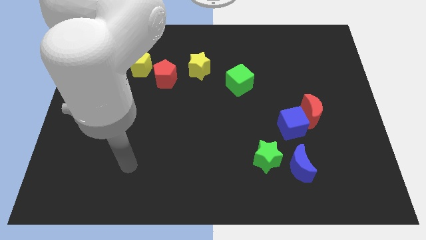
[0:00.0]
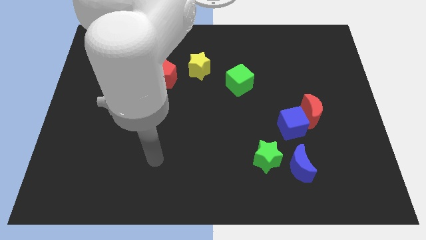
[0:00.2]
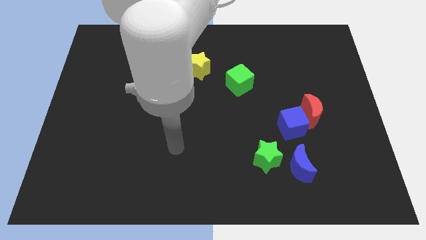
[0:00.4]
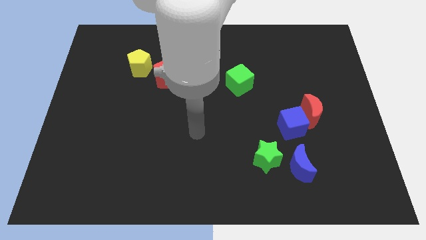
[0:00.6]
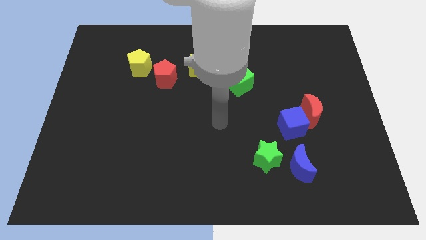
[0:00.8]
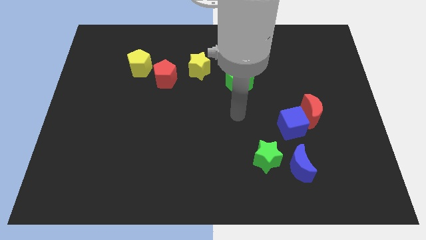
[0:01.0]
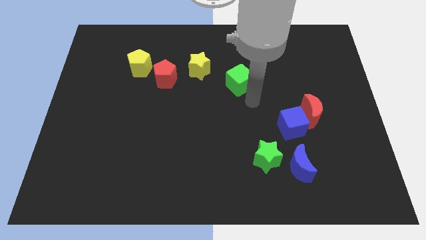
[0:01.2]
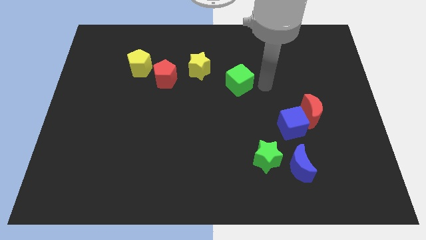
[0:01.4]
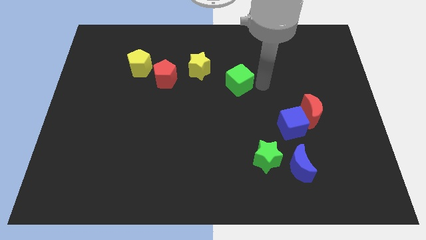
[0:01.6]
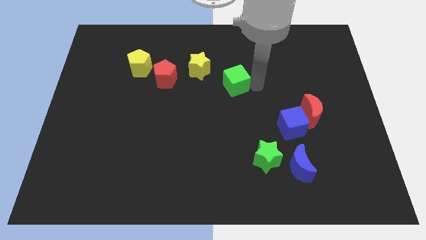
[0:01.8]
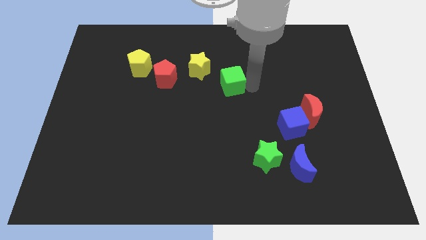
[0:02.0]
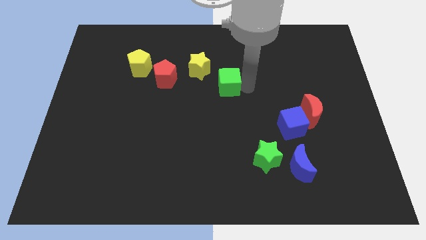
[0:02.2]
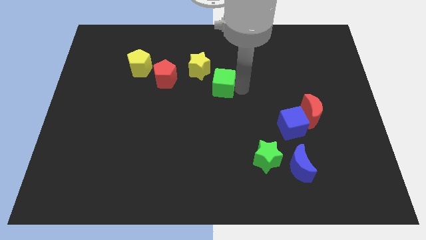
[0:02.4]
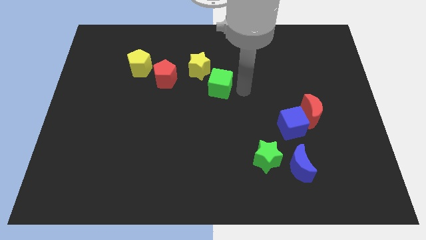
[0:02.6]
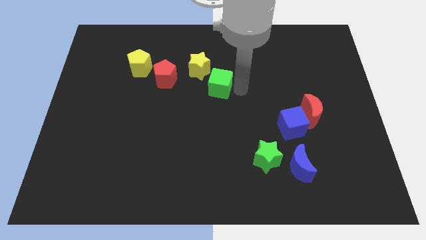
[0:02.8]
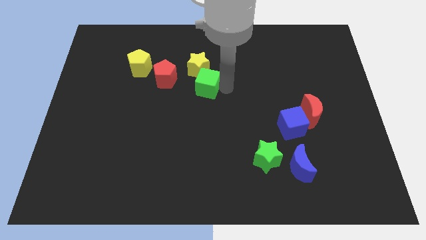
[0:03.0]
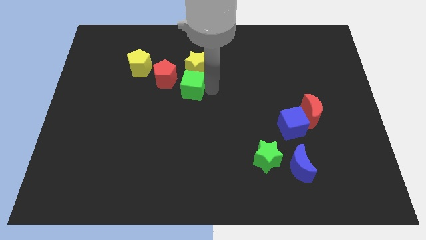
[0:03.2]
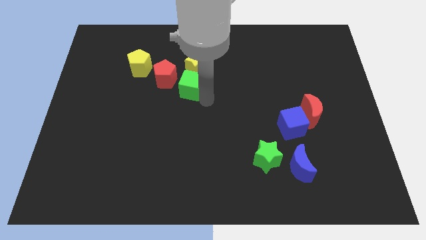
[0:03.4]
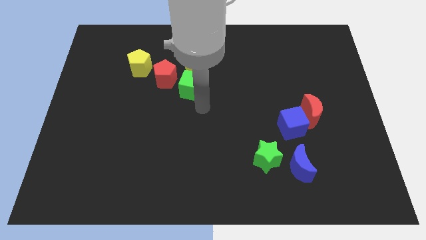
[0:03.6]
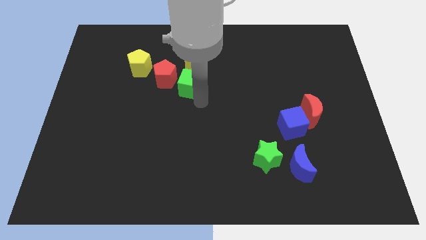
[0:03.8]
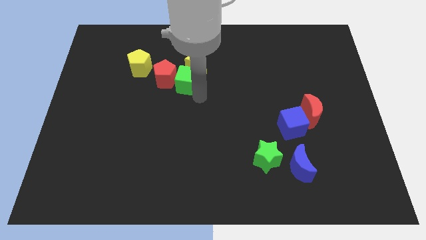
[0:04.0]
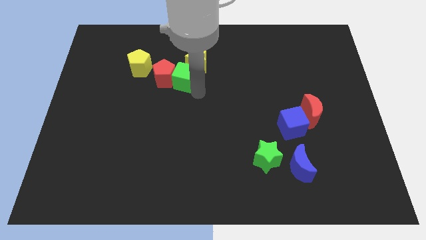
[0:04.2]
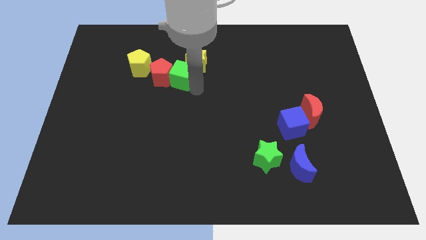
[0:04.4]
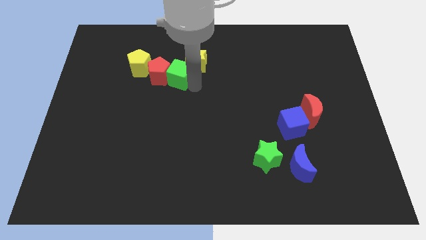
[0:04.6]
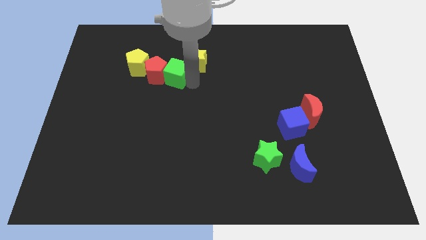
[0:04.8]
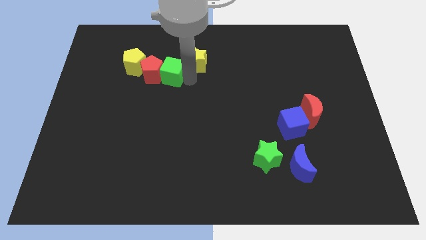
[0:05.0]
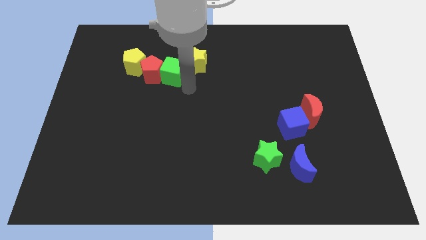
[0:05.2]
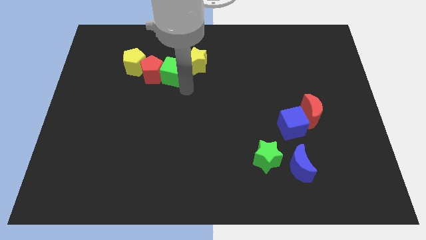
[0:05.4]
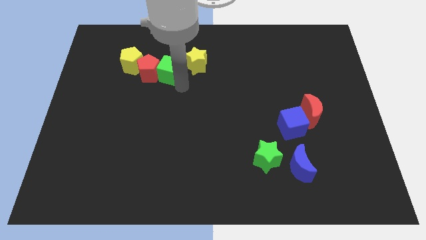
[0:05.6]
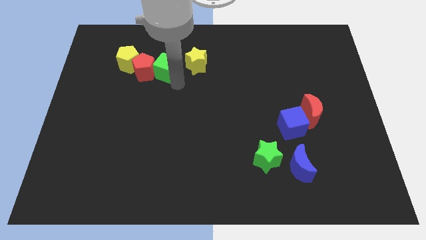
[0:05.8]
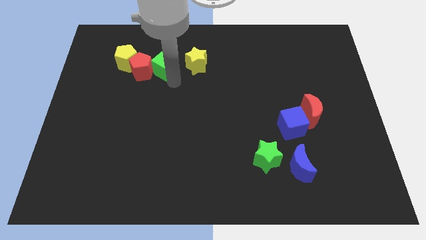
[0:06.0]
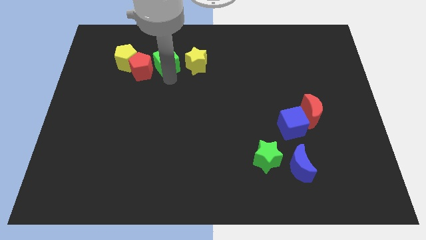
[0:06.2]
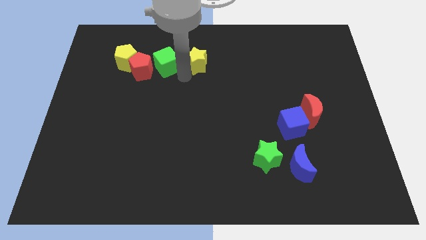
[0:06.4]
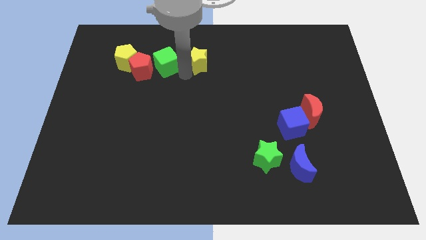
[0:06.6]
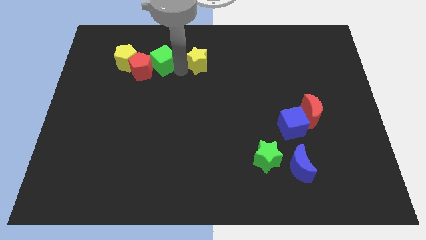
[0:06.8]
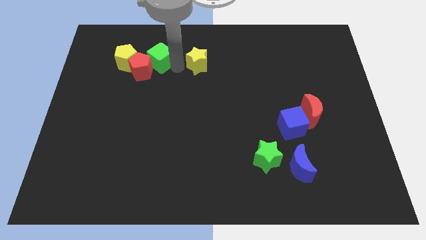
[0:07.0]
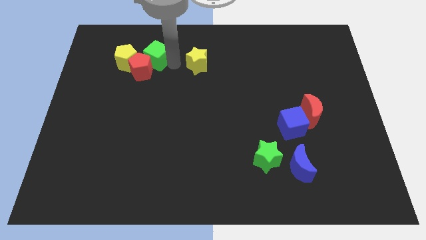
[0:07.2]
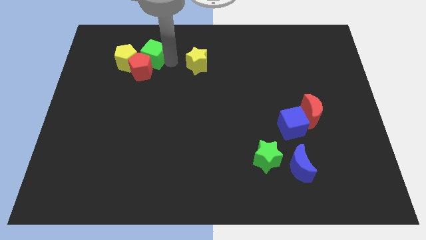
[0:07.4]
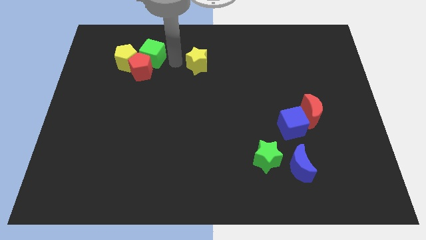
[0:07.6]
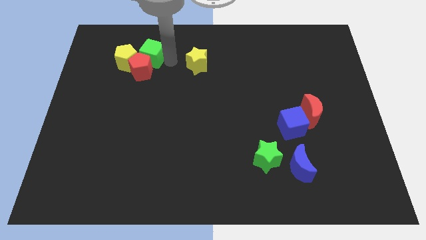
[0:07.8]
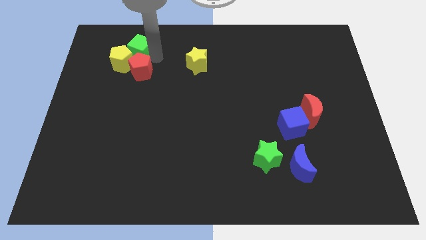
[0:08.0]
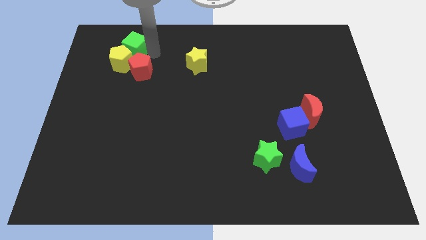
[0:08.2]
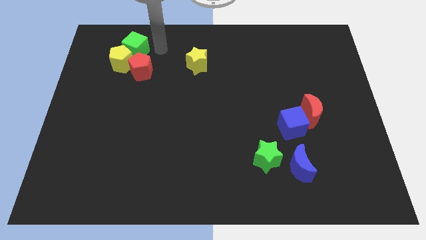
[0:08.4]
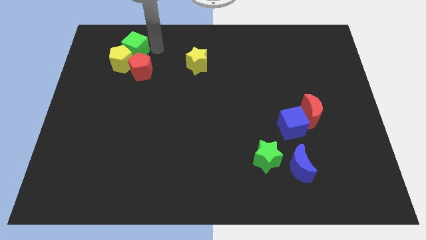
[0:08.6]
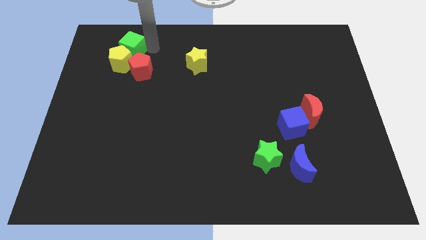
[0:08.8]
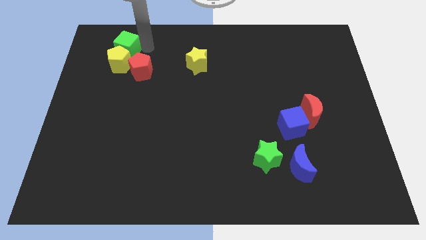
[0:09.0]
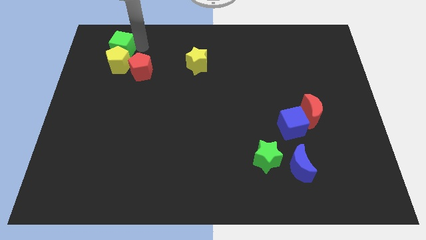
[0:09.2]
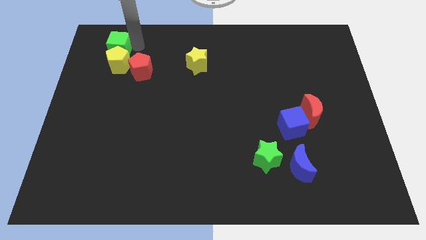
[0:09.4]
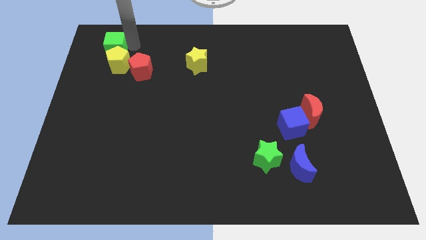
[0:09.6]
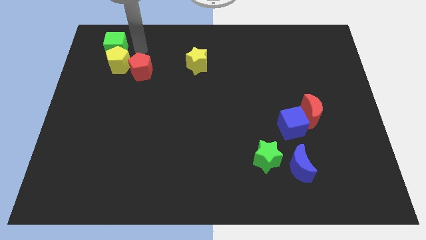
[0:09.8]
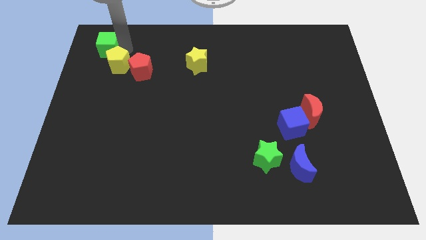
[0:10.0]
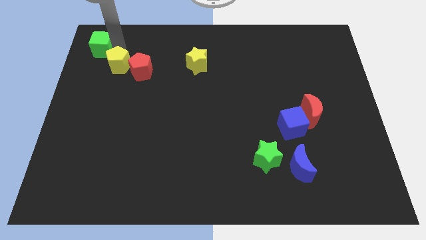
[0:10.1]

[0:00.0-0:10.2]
move the green cube to the upper left corner

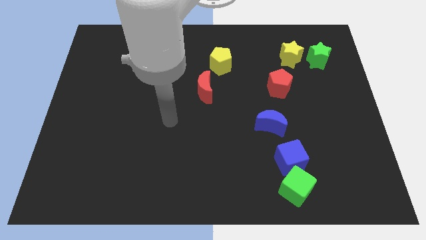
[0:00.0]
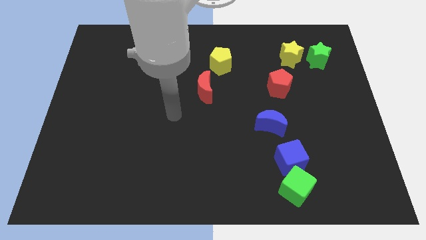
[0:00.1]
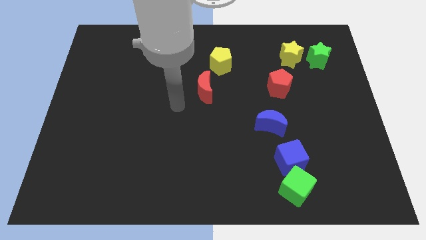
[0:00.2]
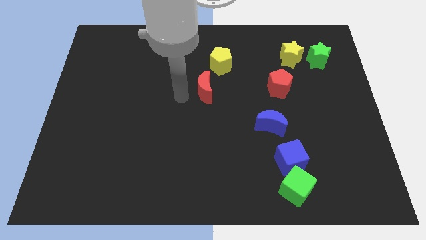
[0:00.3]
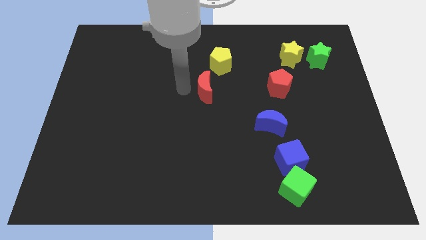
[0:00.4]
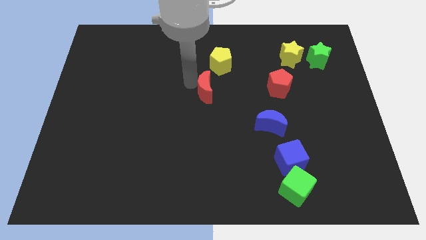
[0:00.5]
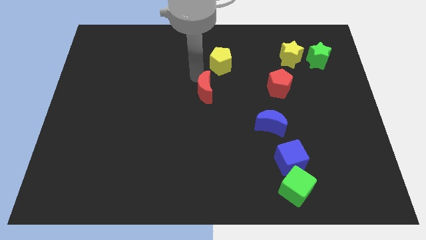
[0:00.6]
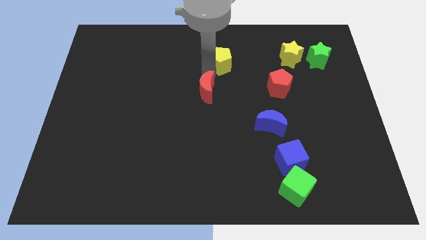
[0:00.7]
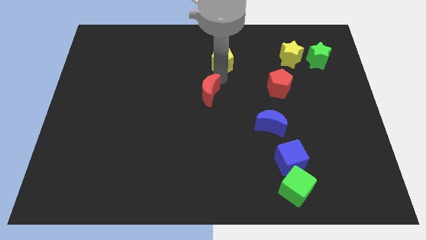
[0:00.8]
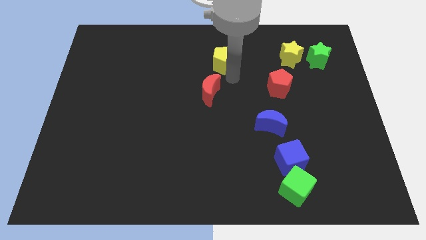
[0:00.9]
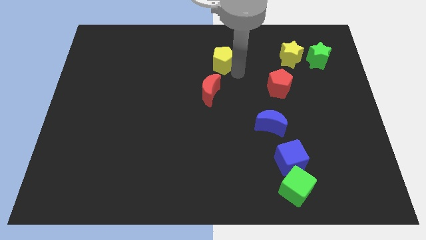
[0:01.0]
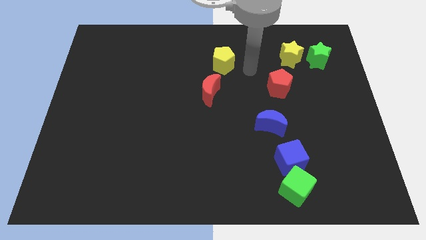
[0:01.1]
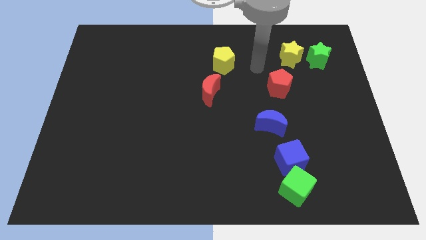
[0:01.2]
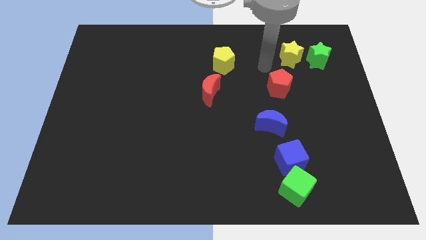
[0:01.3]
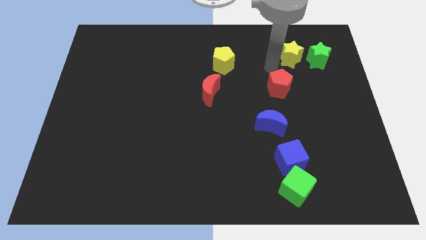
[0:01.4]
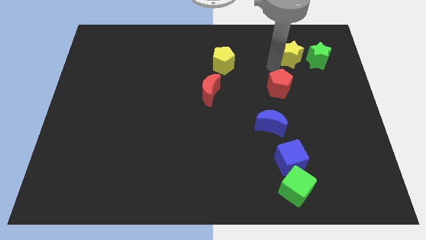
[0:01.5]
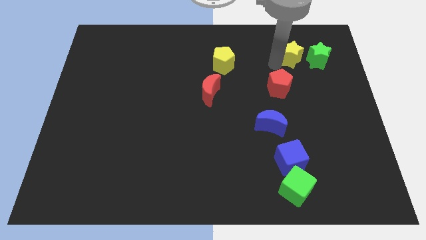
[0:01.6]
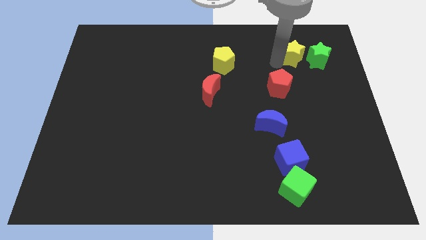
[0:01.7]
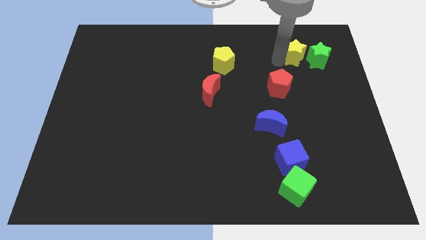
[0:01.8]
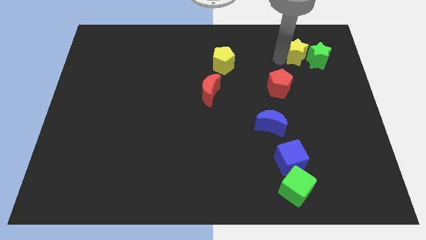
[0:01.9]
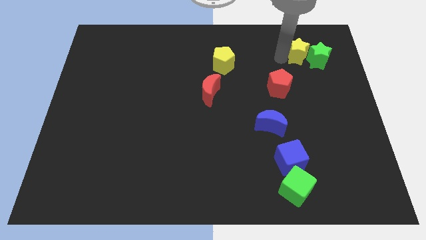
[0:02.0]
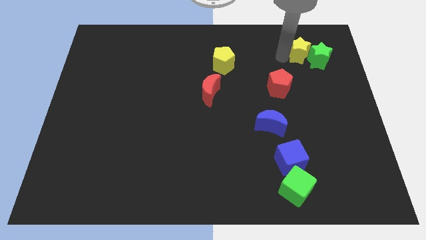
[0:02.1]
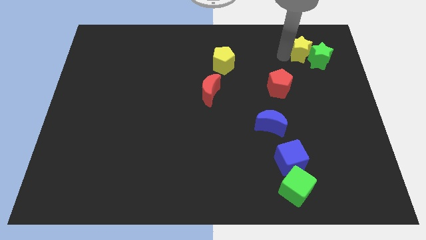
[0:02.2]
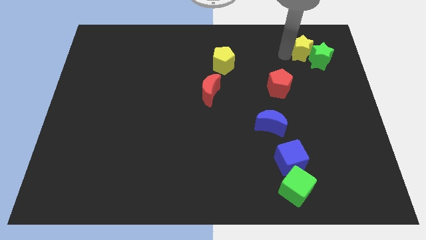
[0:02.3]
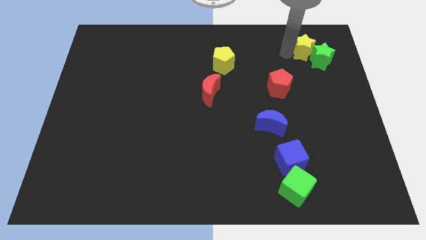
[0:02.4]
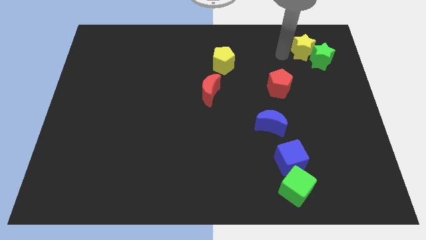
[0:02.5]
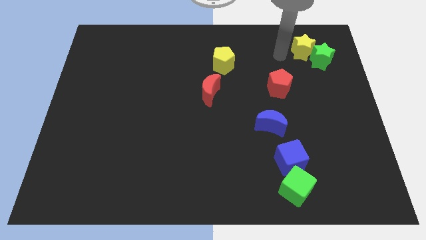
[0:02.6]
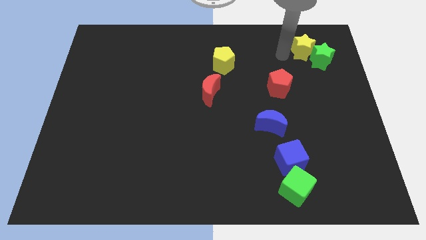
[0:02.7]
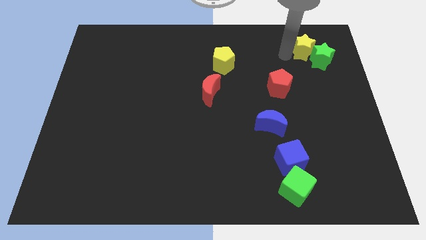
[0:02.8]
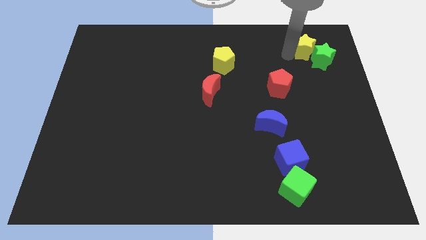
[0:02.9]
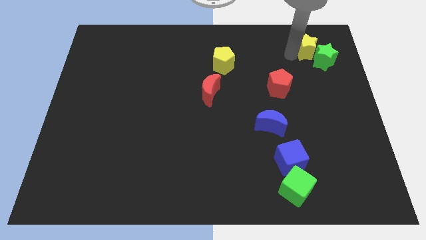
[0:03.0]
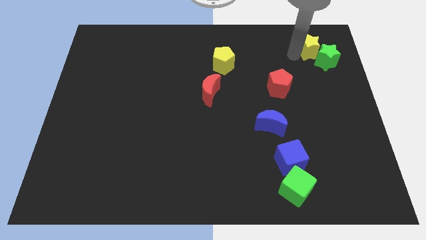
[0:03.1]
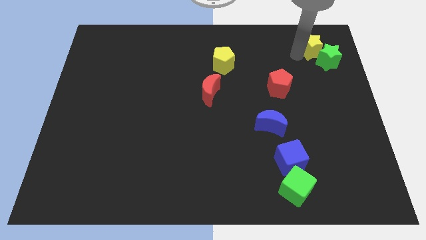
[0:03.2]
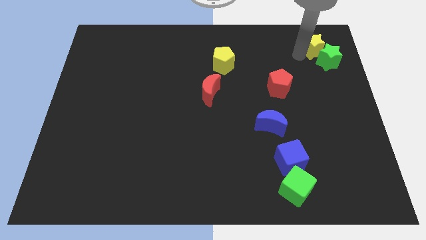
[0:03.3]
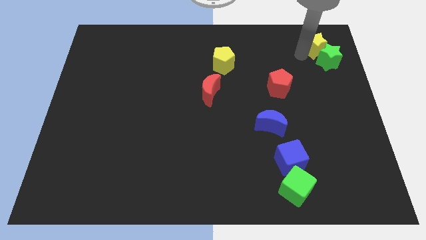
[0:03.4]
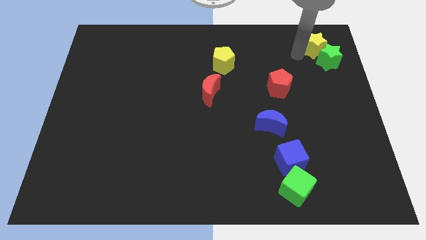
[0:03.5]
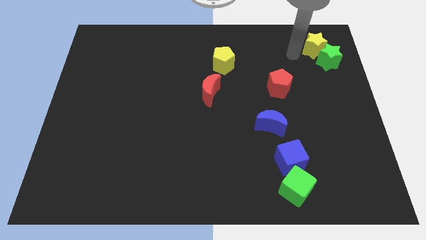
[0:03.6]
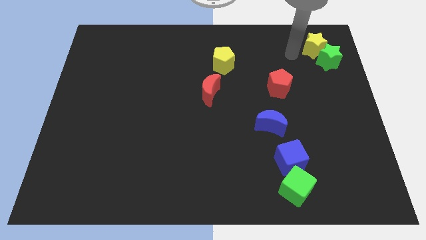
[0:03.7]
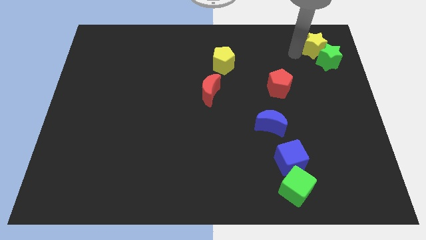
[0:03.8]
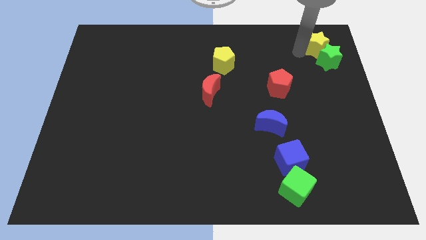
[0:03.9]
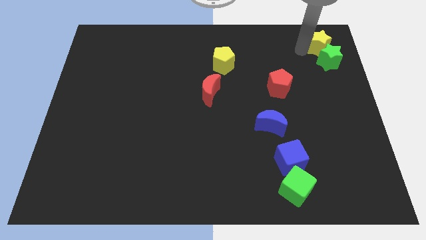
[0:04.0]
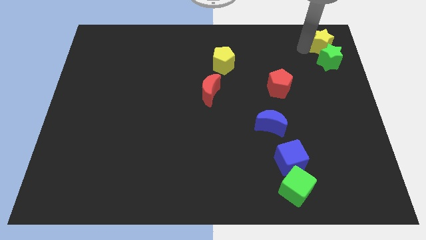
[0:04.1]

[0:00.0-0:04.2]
put the yellow star to the top right corner
